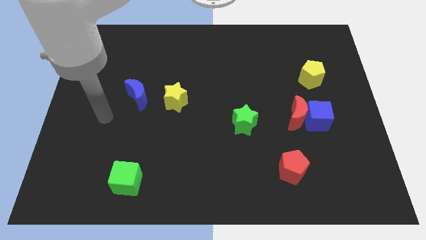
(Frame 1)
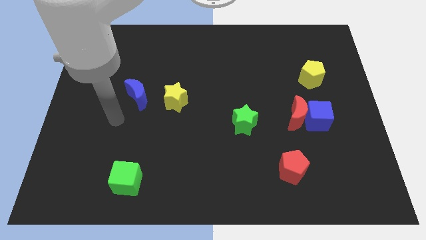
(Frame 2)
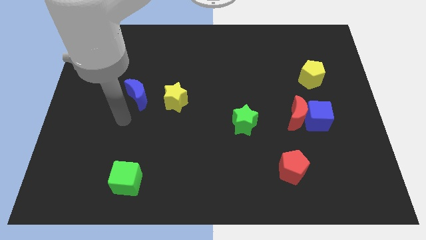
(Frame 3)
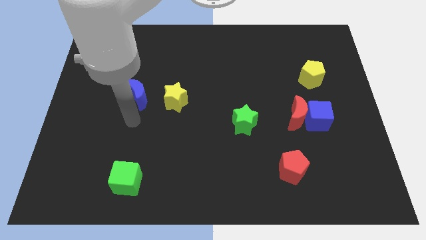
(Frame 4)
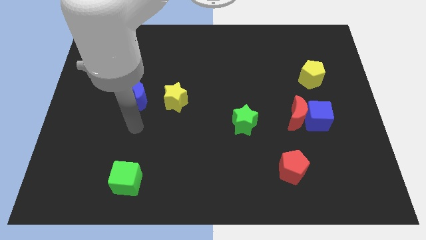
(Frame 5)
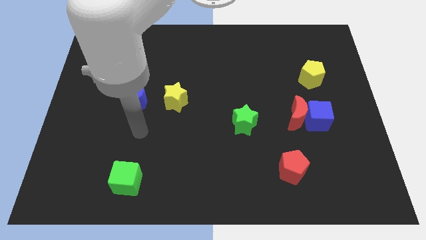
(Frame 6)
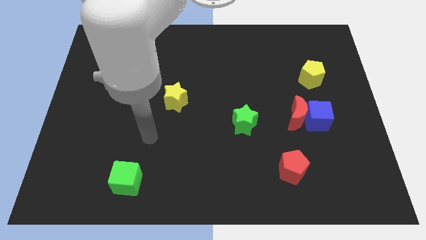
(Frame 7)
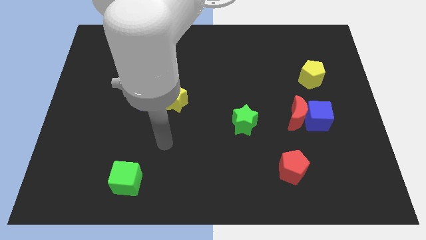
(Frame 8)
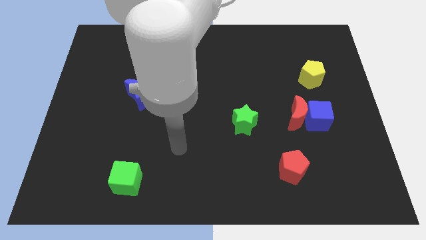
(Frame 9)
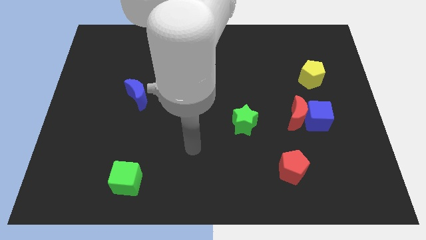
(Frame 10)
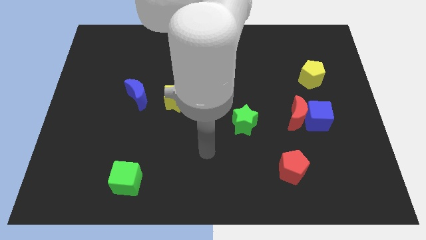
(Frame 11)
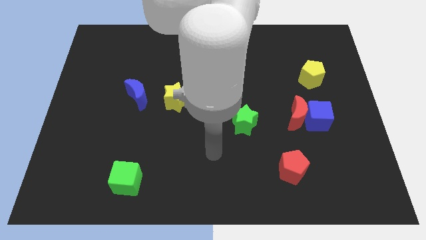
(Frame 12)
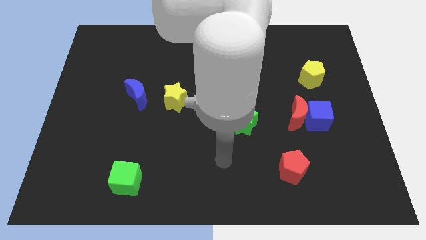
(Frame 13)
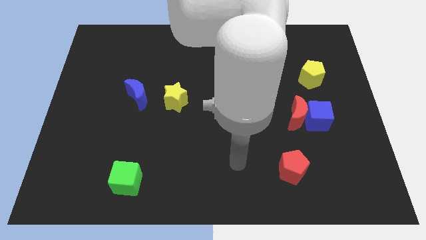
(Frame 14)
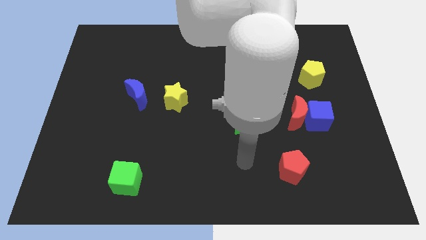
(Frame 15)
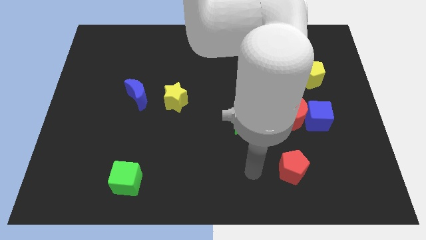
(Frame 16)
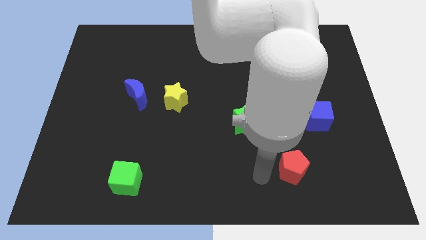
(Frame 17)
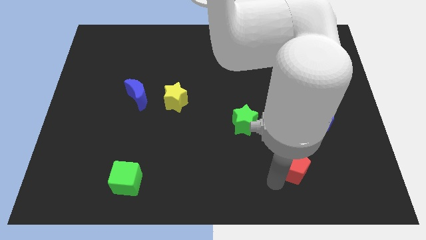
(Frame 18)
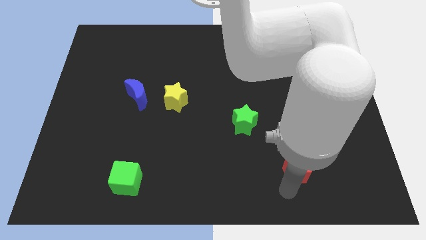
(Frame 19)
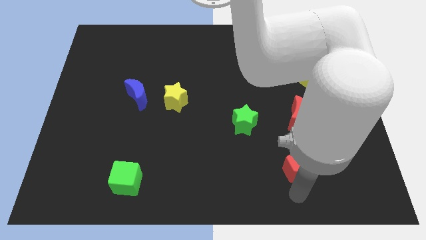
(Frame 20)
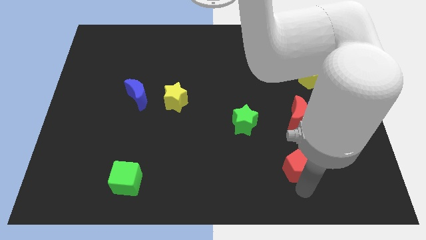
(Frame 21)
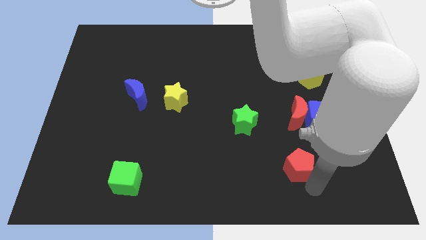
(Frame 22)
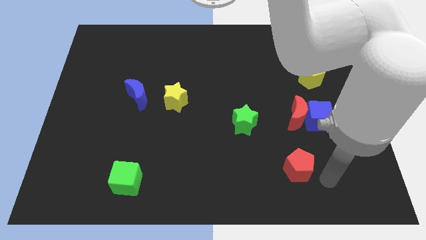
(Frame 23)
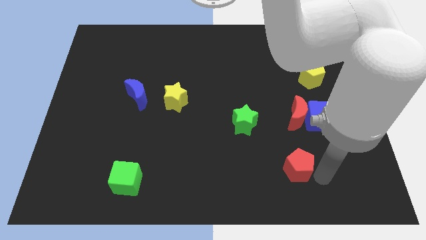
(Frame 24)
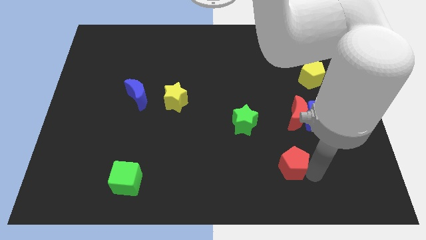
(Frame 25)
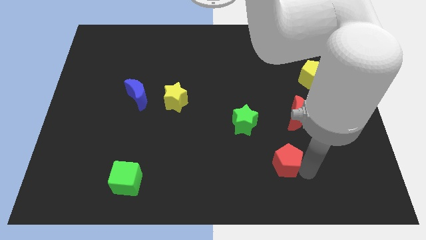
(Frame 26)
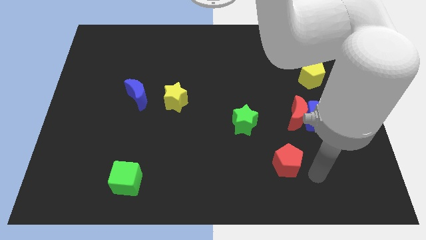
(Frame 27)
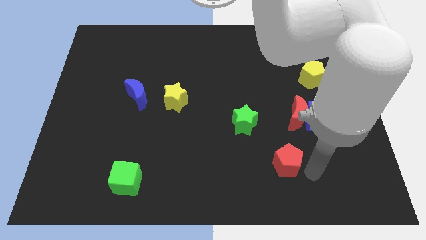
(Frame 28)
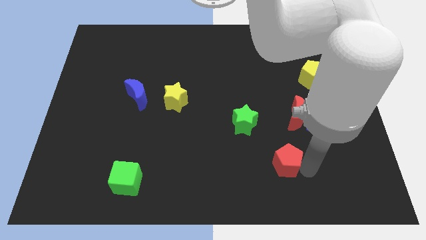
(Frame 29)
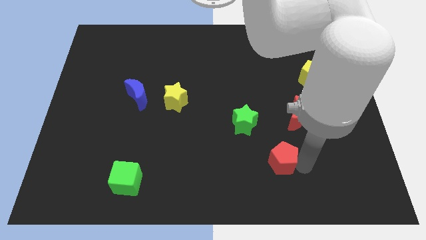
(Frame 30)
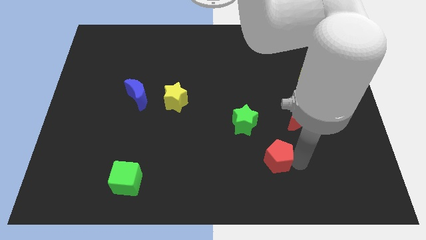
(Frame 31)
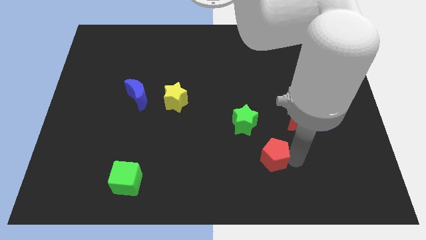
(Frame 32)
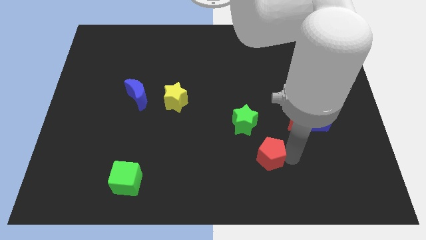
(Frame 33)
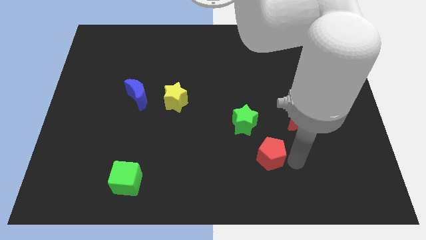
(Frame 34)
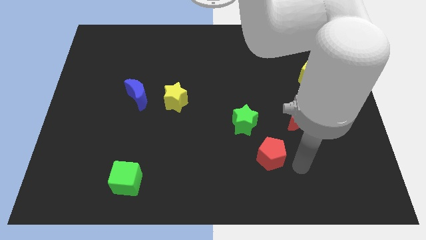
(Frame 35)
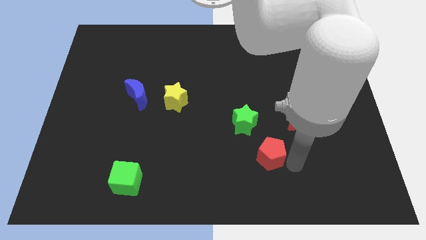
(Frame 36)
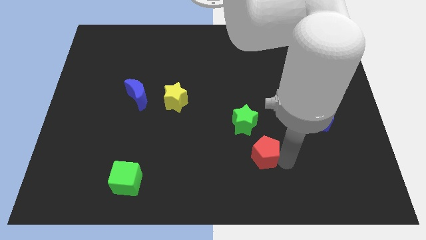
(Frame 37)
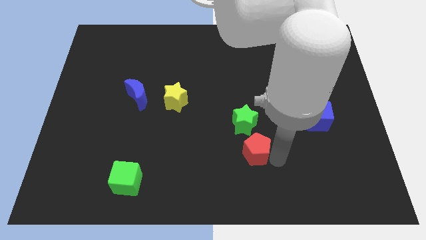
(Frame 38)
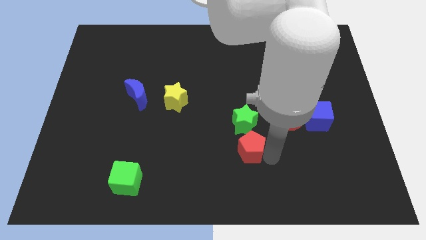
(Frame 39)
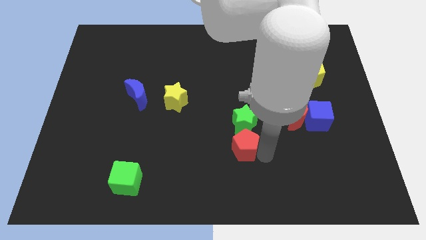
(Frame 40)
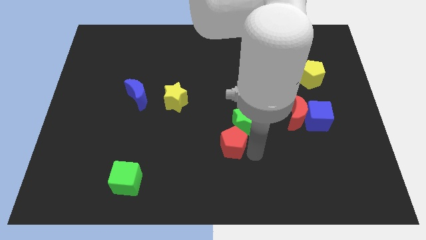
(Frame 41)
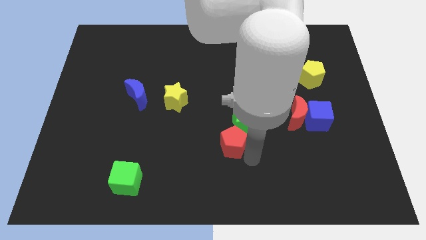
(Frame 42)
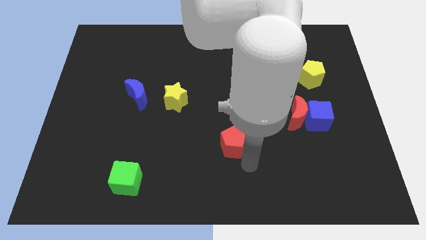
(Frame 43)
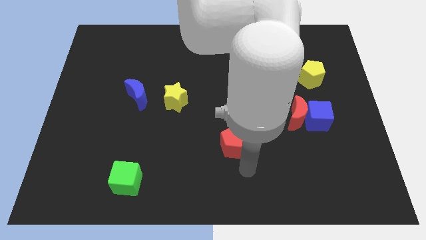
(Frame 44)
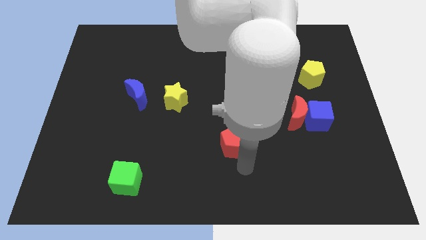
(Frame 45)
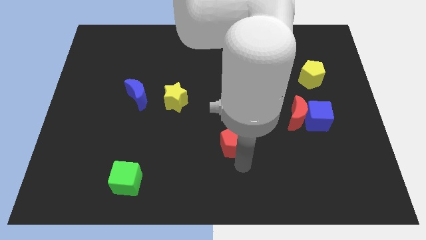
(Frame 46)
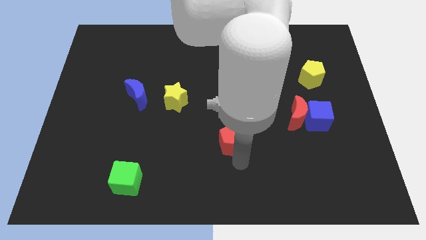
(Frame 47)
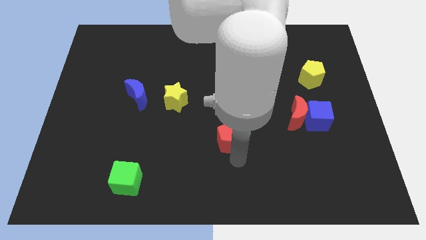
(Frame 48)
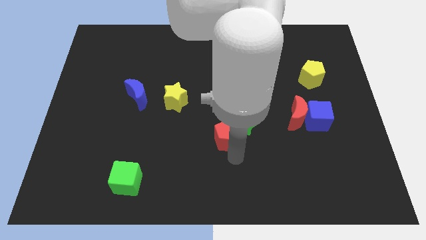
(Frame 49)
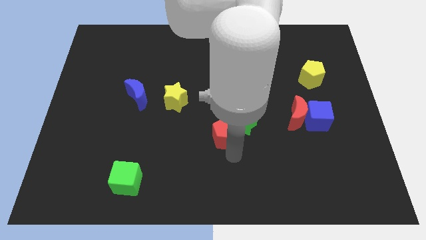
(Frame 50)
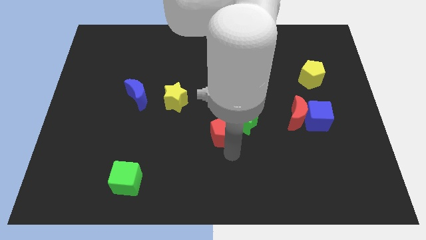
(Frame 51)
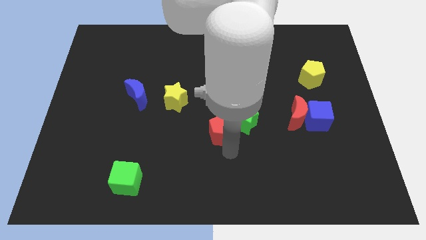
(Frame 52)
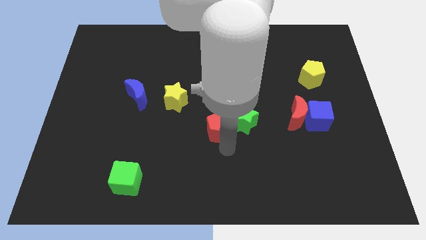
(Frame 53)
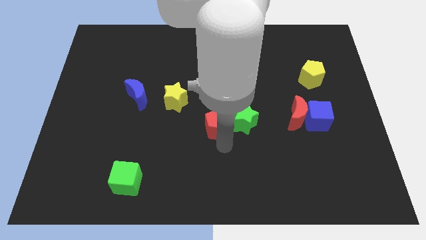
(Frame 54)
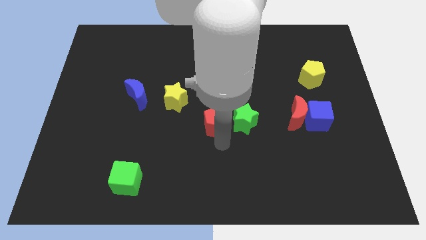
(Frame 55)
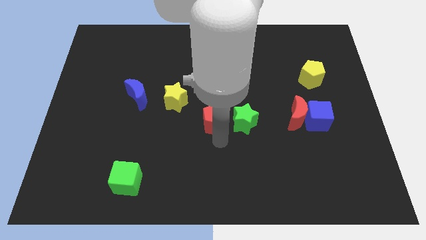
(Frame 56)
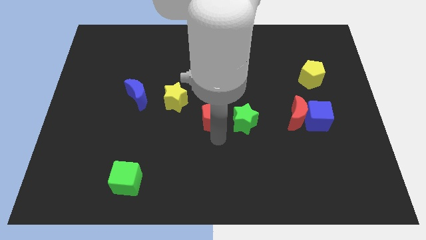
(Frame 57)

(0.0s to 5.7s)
slide the red pentagon up and then to the left

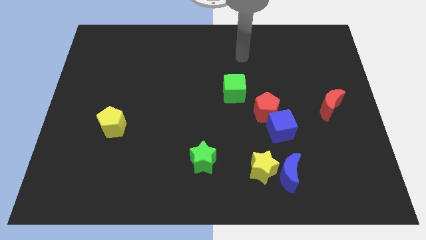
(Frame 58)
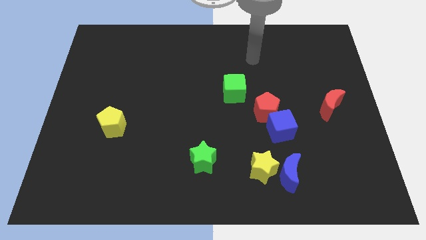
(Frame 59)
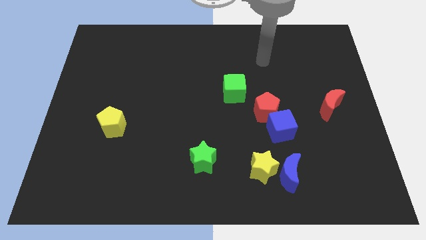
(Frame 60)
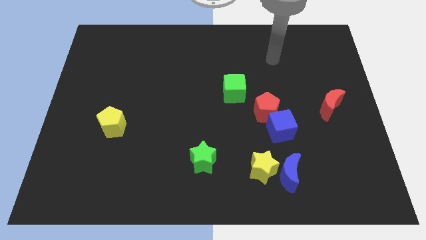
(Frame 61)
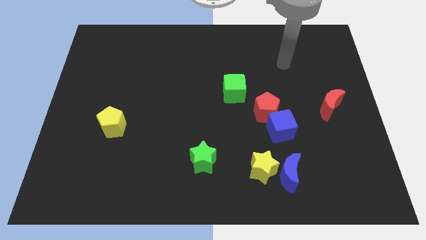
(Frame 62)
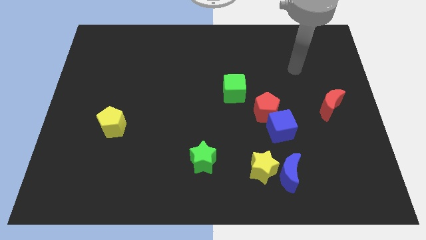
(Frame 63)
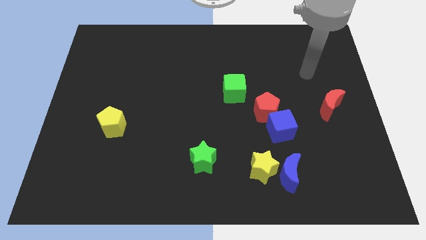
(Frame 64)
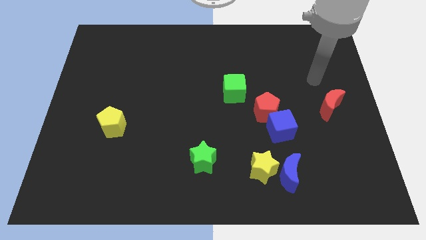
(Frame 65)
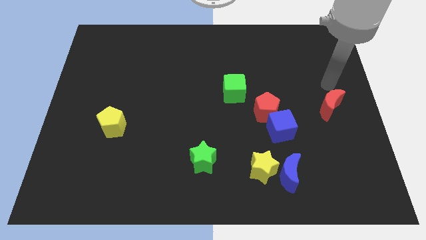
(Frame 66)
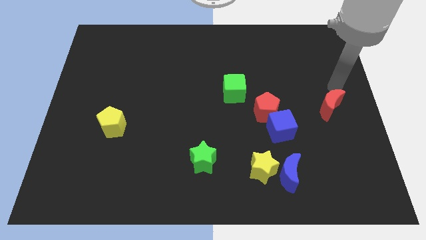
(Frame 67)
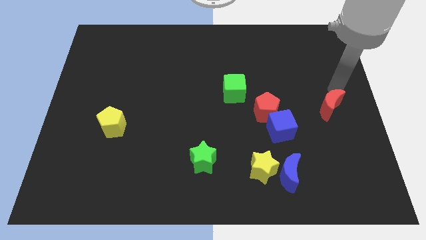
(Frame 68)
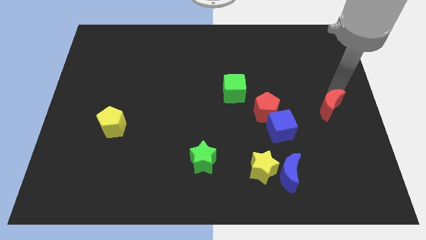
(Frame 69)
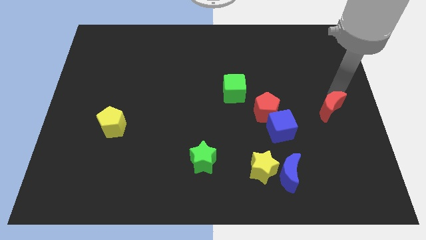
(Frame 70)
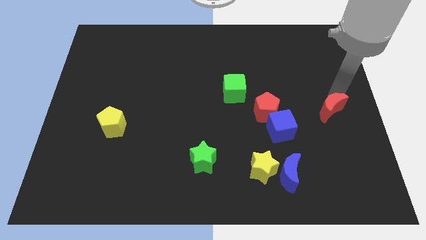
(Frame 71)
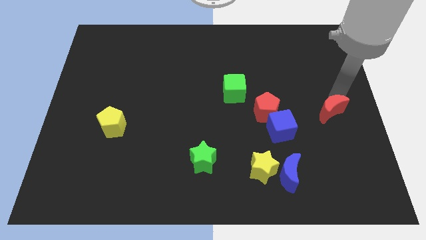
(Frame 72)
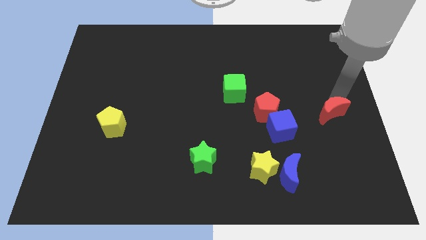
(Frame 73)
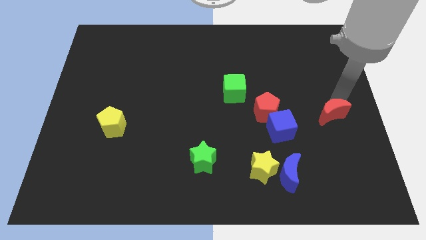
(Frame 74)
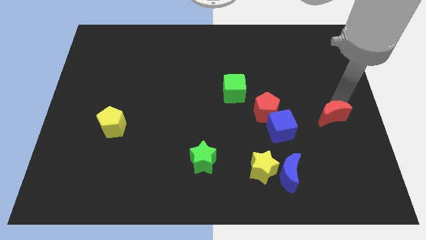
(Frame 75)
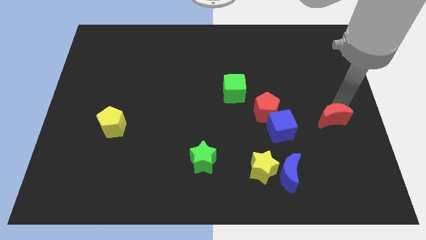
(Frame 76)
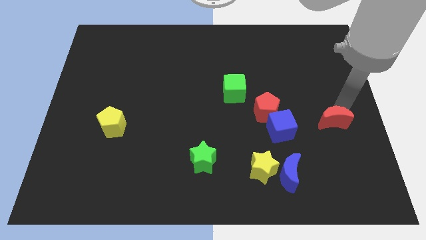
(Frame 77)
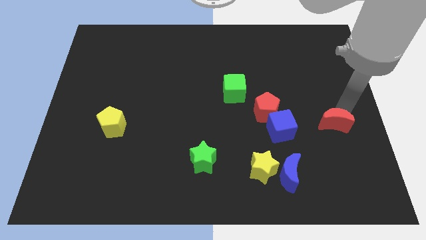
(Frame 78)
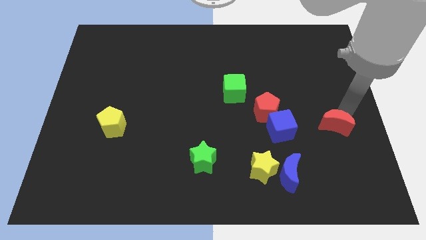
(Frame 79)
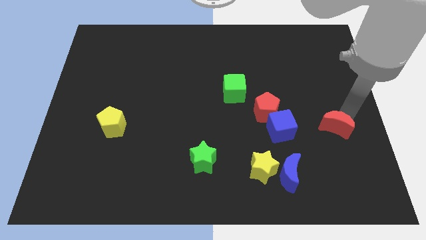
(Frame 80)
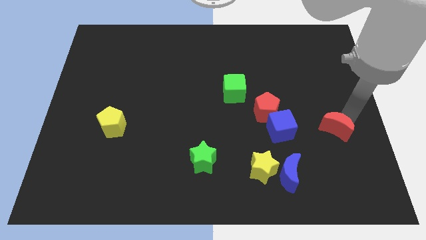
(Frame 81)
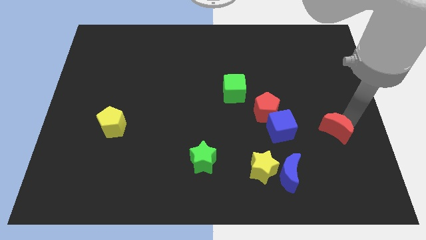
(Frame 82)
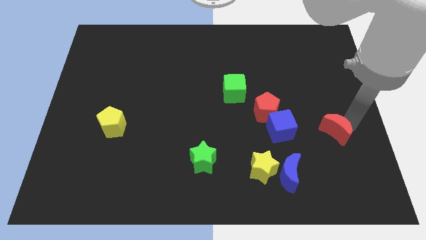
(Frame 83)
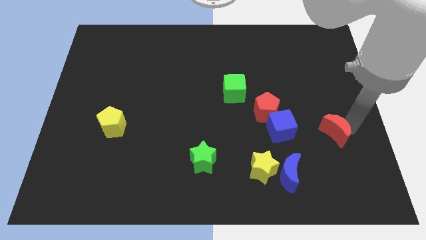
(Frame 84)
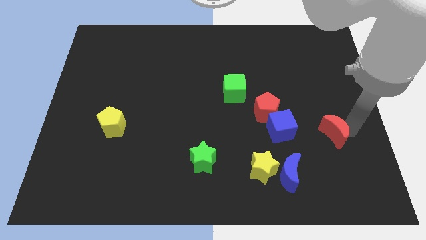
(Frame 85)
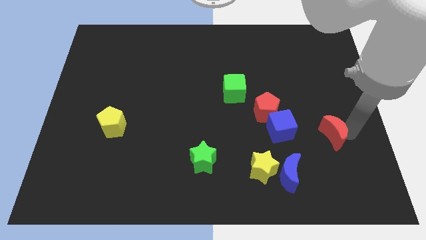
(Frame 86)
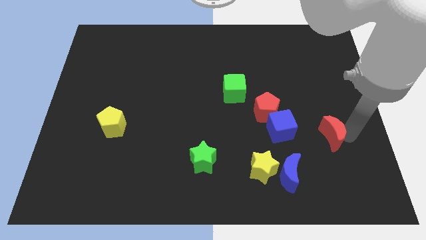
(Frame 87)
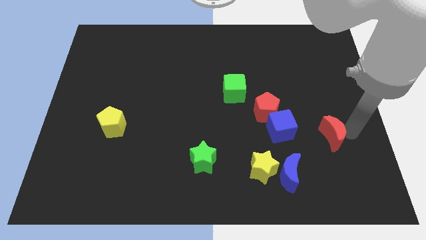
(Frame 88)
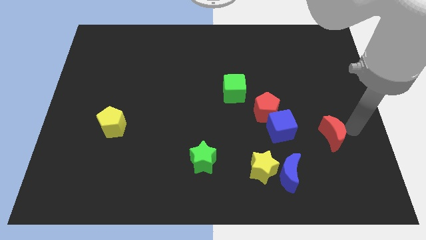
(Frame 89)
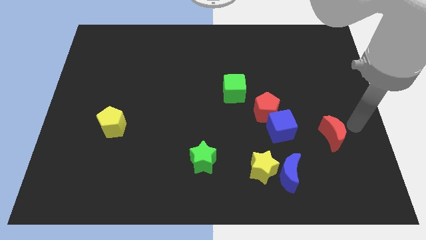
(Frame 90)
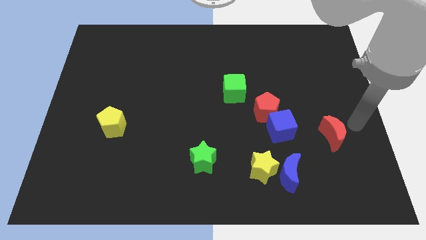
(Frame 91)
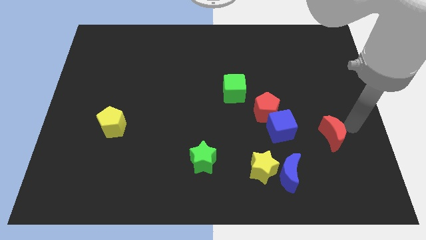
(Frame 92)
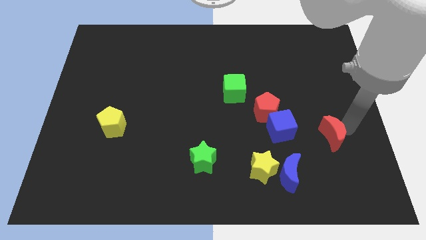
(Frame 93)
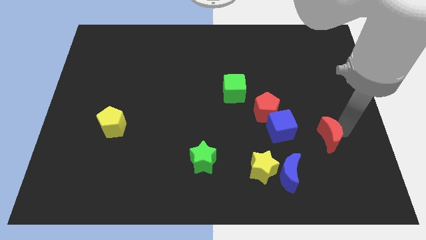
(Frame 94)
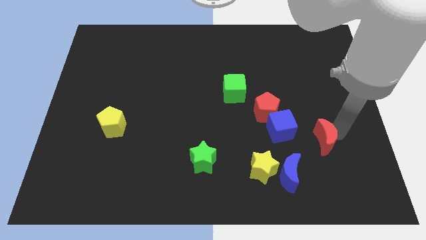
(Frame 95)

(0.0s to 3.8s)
move the red moon a little bit diagonally down and left
